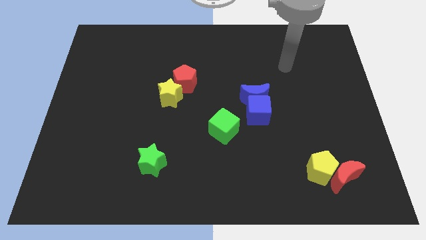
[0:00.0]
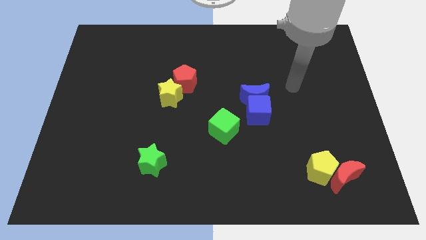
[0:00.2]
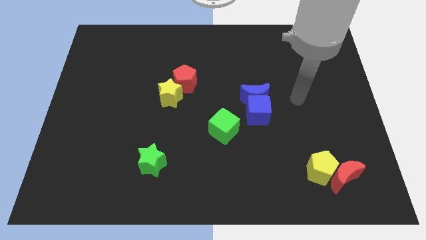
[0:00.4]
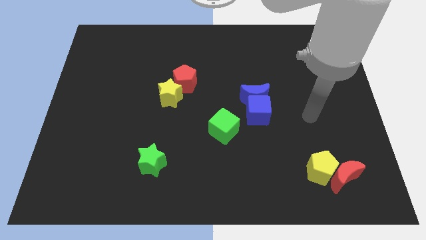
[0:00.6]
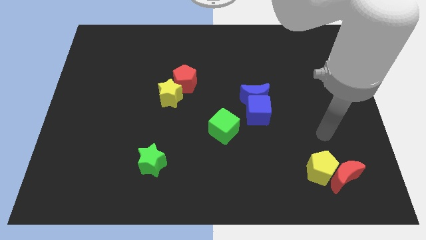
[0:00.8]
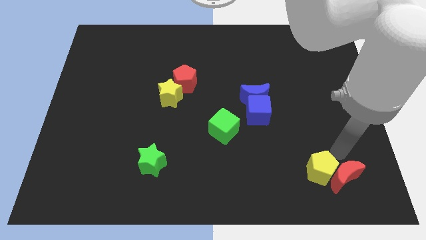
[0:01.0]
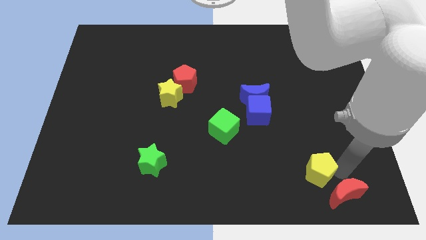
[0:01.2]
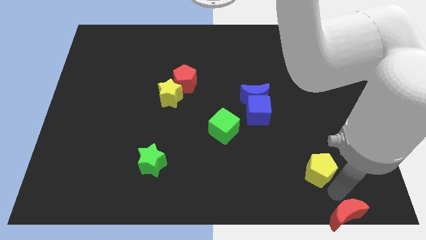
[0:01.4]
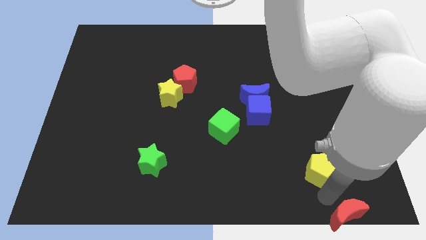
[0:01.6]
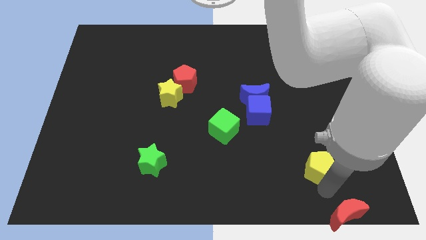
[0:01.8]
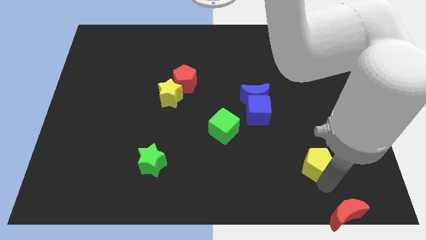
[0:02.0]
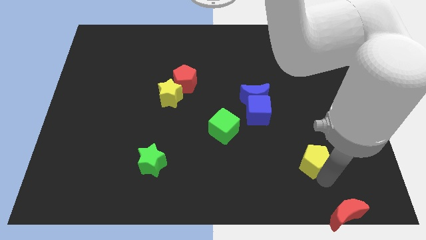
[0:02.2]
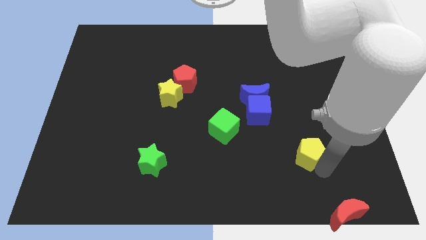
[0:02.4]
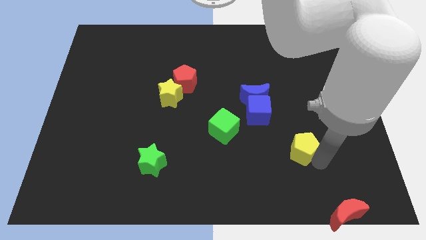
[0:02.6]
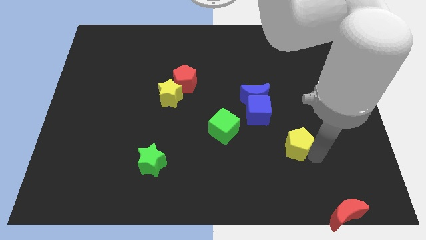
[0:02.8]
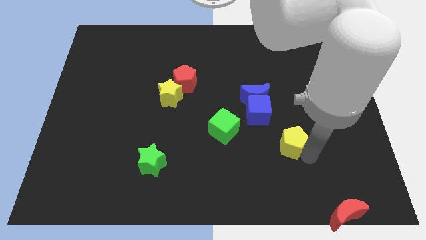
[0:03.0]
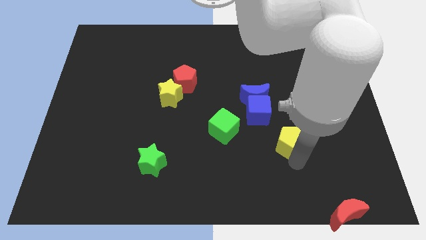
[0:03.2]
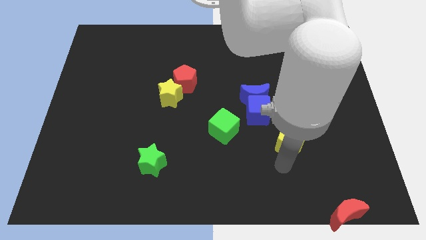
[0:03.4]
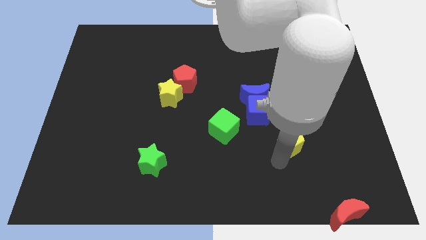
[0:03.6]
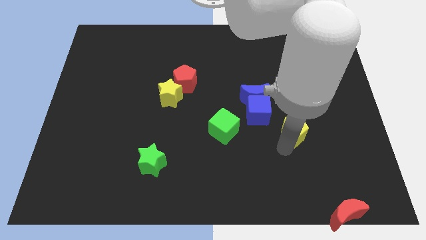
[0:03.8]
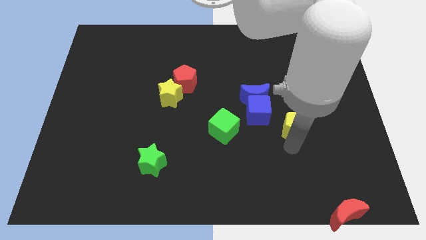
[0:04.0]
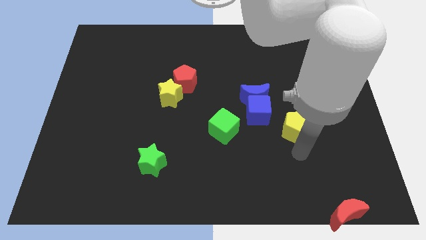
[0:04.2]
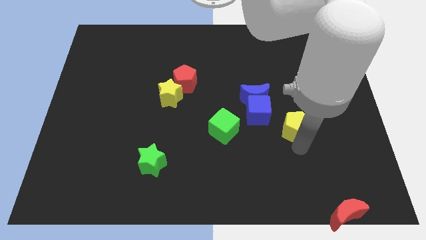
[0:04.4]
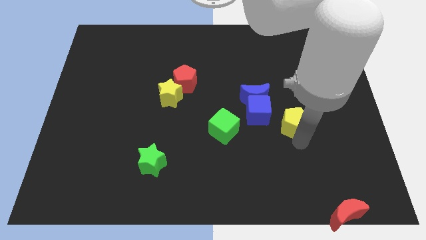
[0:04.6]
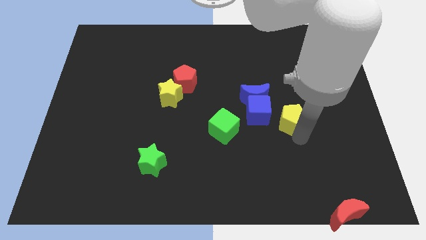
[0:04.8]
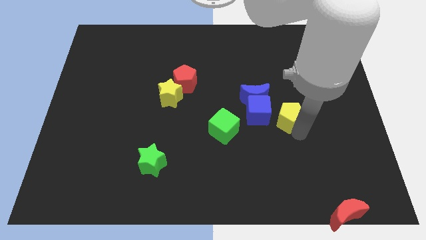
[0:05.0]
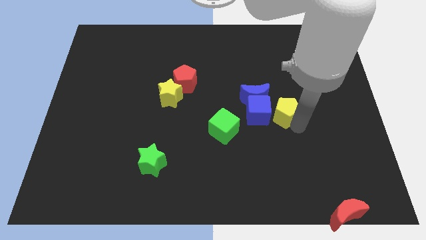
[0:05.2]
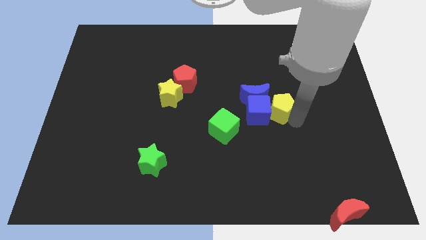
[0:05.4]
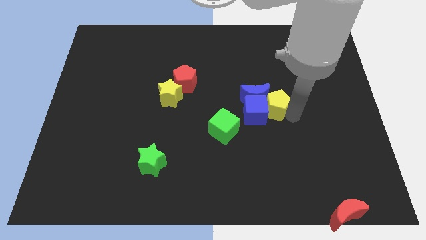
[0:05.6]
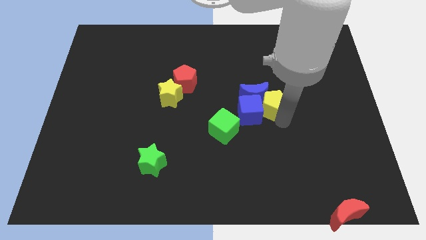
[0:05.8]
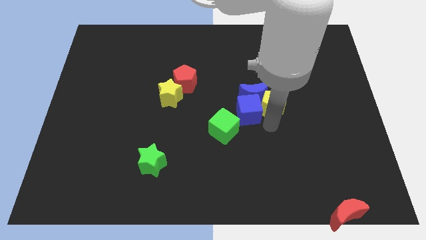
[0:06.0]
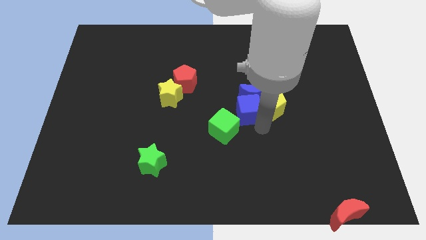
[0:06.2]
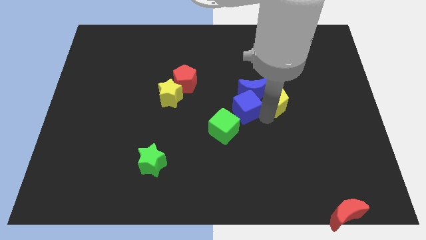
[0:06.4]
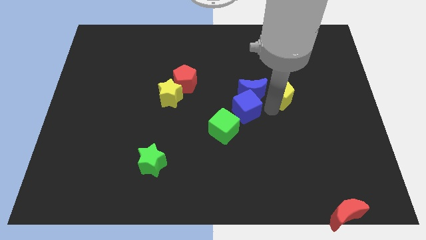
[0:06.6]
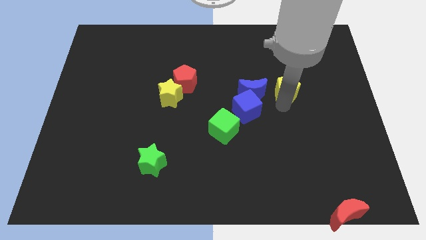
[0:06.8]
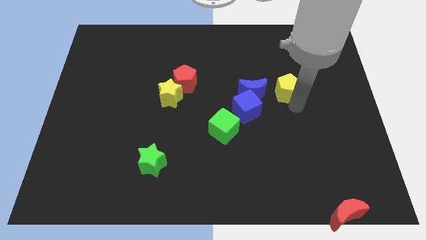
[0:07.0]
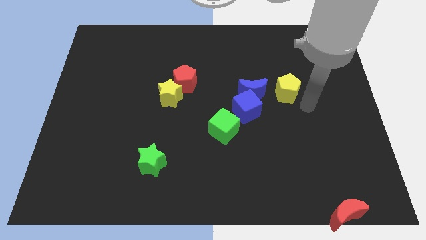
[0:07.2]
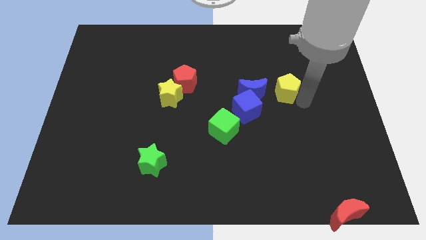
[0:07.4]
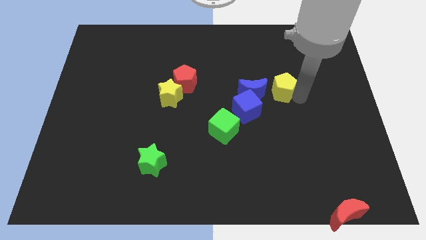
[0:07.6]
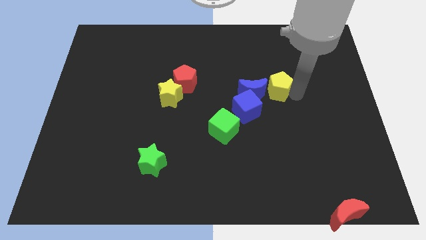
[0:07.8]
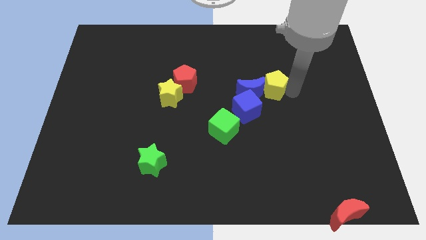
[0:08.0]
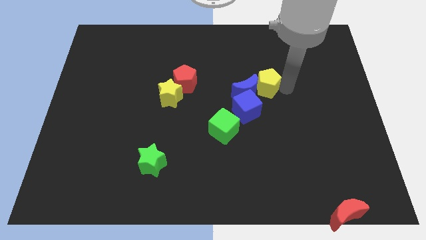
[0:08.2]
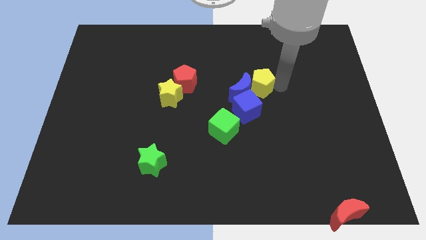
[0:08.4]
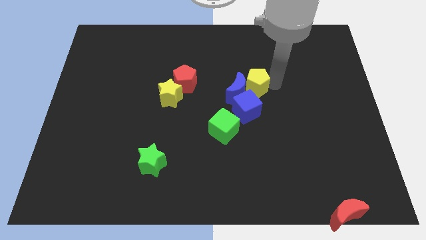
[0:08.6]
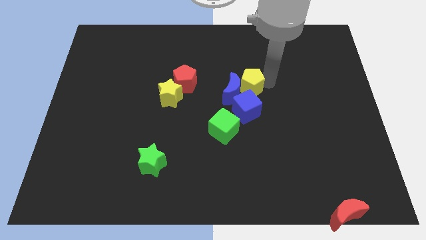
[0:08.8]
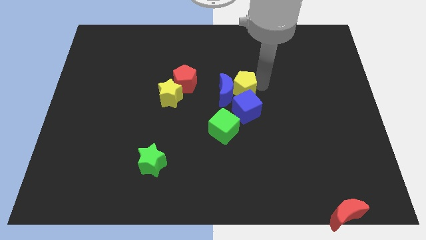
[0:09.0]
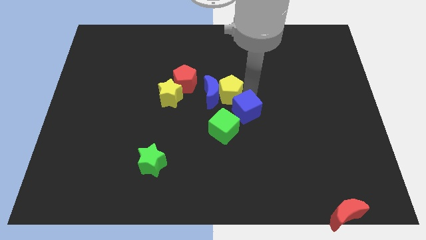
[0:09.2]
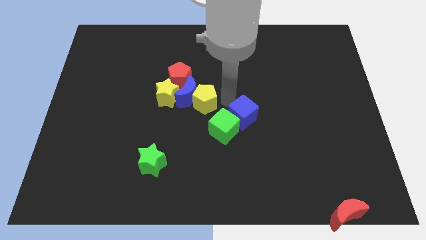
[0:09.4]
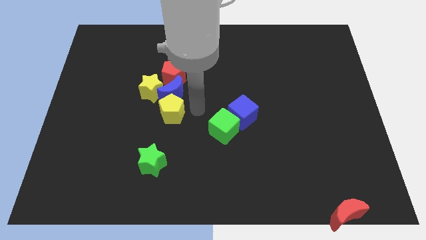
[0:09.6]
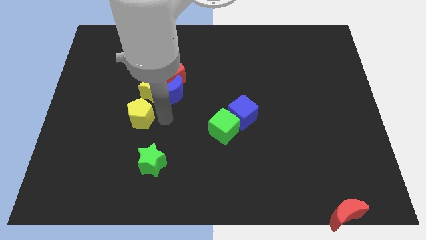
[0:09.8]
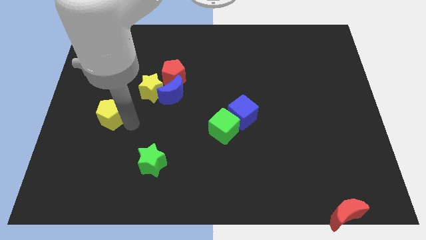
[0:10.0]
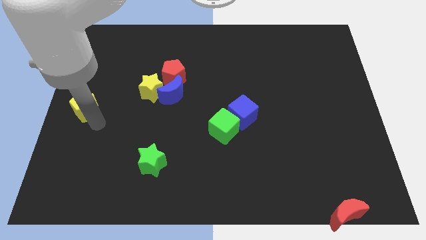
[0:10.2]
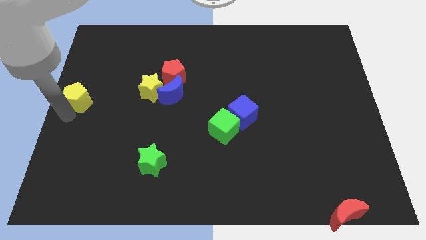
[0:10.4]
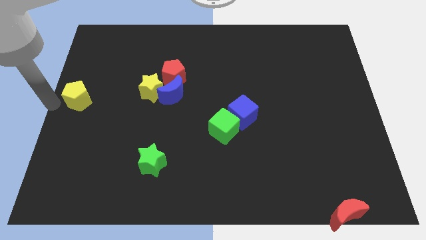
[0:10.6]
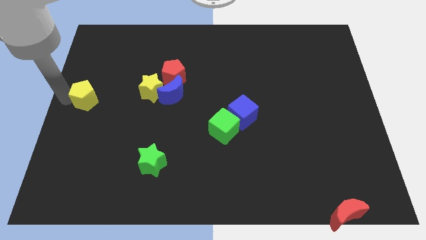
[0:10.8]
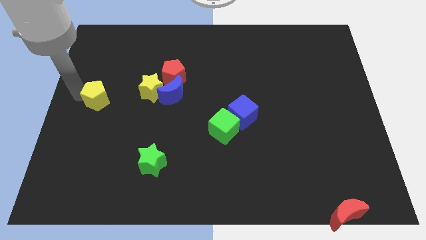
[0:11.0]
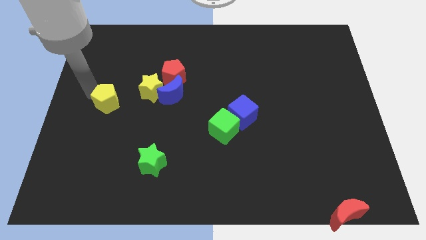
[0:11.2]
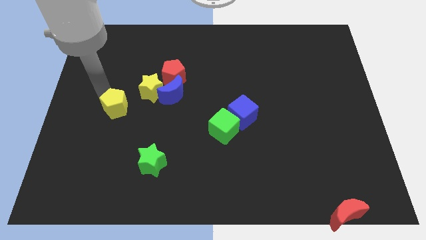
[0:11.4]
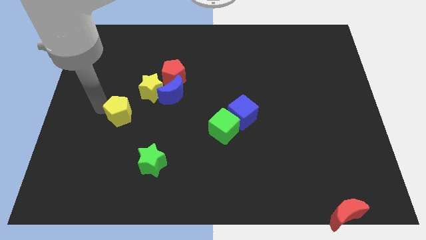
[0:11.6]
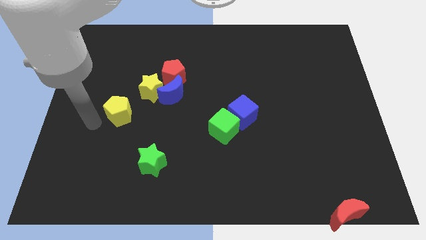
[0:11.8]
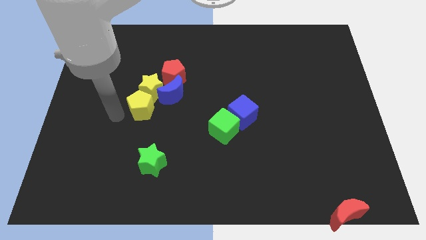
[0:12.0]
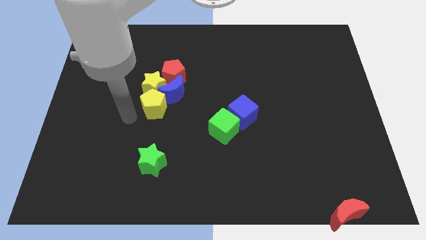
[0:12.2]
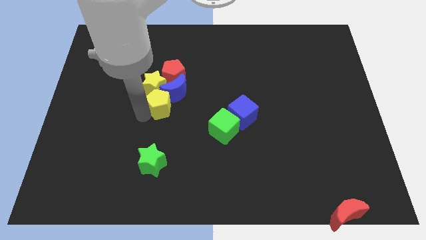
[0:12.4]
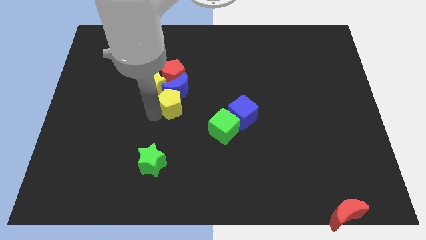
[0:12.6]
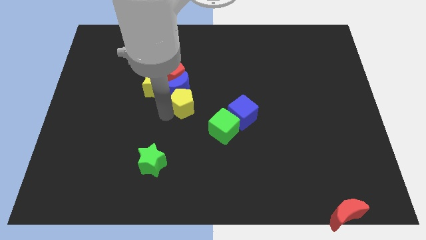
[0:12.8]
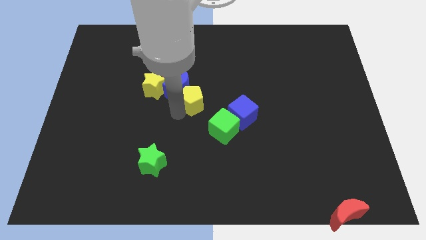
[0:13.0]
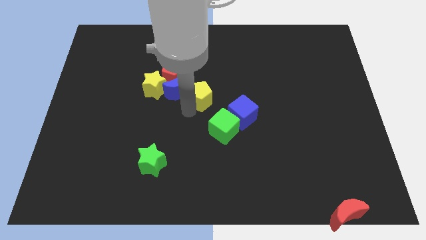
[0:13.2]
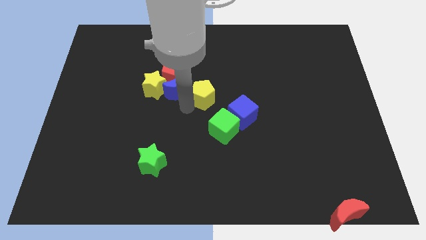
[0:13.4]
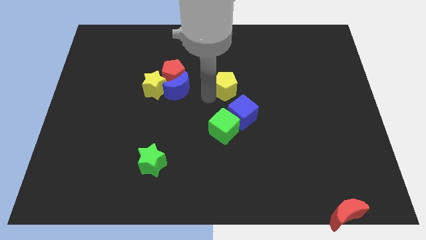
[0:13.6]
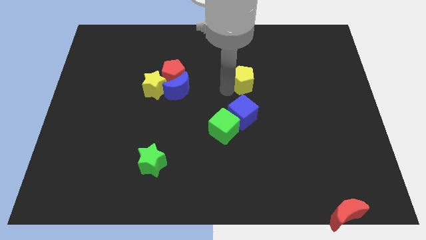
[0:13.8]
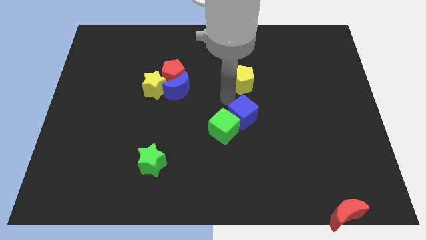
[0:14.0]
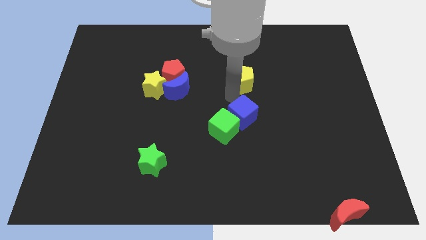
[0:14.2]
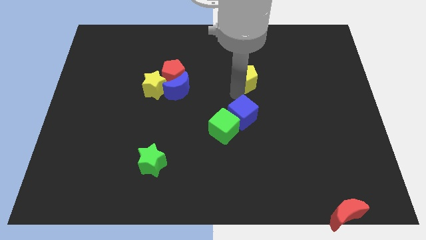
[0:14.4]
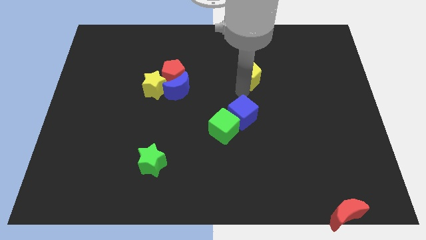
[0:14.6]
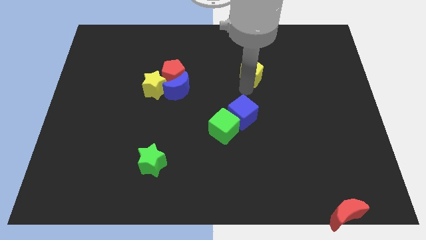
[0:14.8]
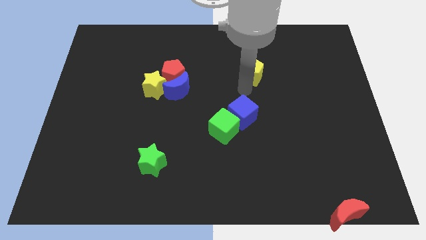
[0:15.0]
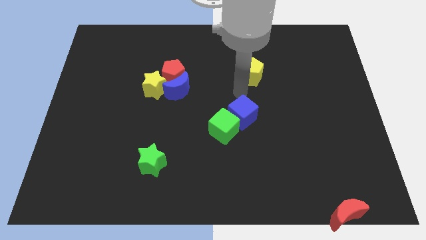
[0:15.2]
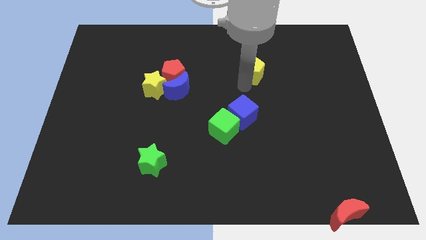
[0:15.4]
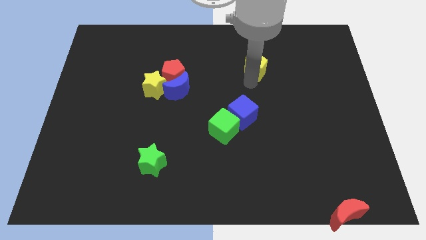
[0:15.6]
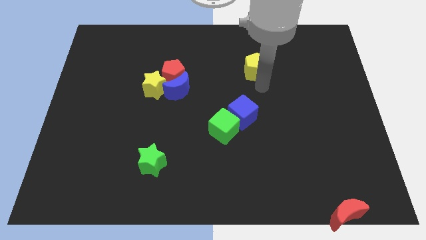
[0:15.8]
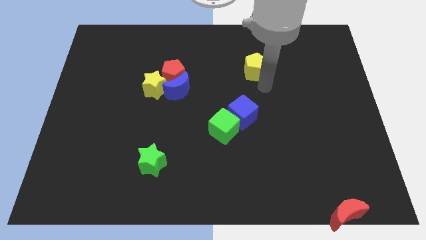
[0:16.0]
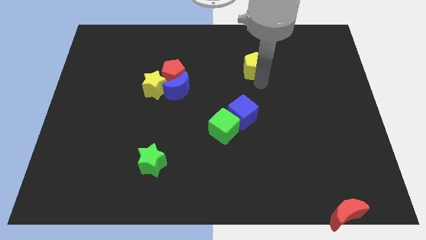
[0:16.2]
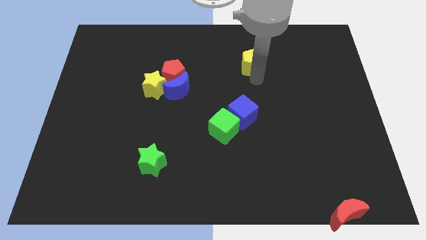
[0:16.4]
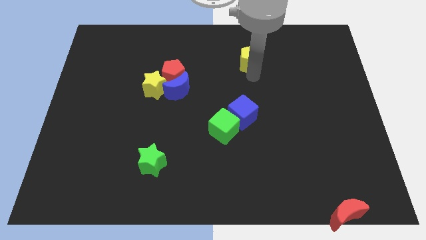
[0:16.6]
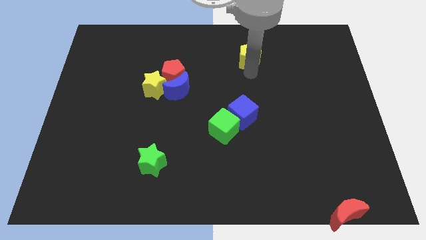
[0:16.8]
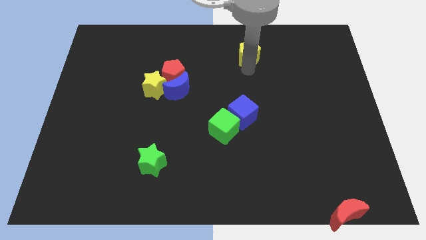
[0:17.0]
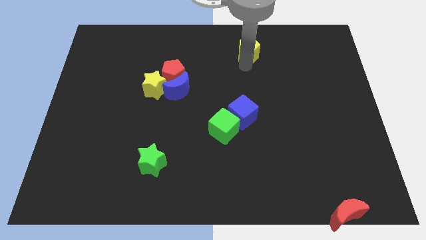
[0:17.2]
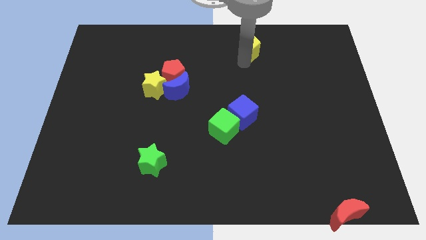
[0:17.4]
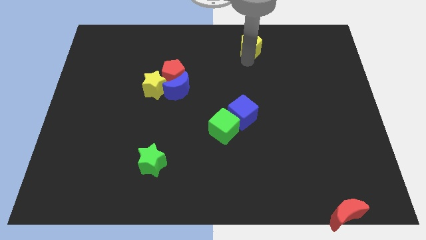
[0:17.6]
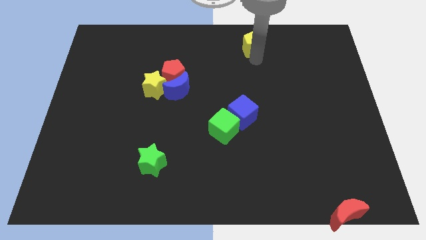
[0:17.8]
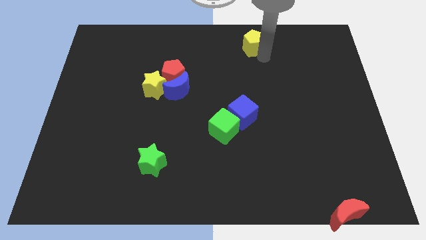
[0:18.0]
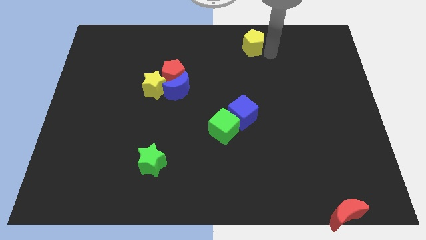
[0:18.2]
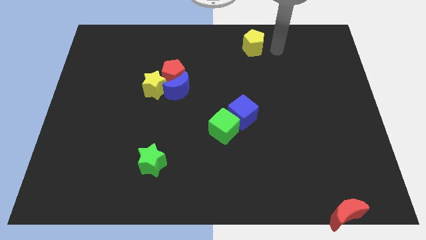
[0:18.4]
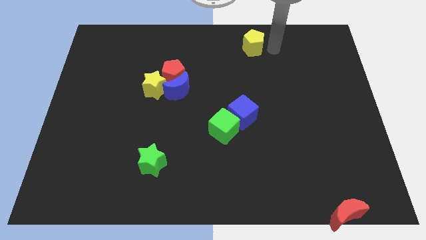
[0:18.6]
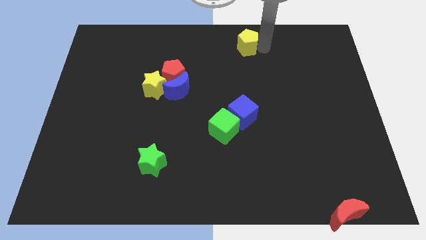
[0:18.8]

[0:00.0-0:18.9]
move the yellow pentagon to the top side
